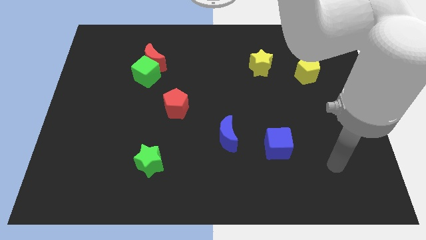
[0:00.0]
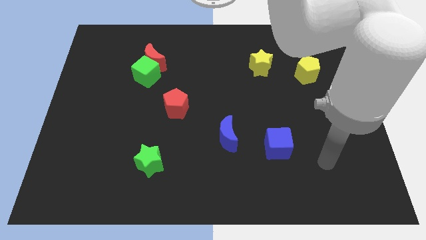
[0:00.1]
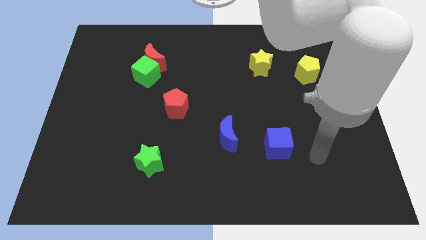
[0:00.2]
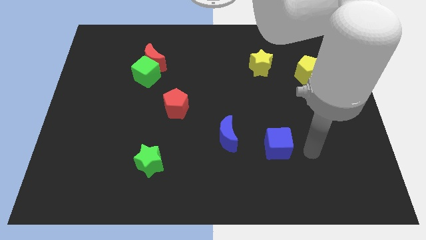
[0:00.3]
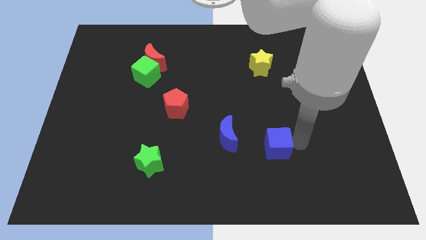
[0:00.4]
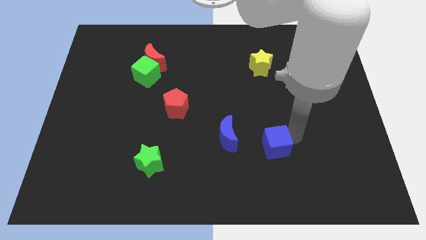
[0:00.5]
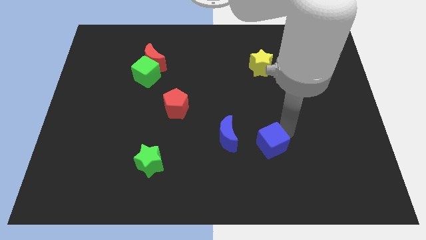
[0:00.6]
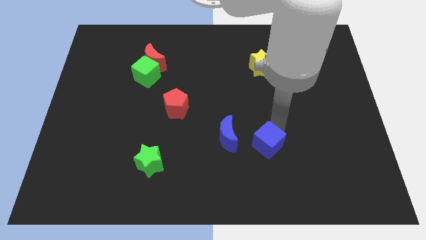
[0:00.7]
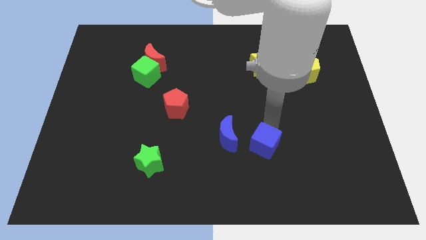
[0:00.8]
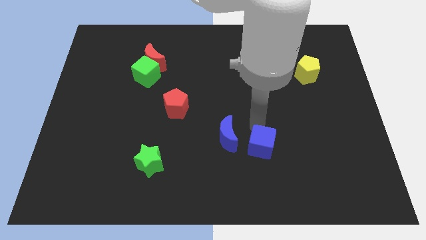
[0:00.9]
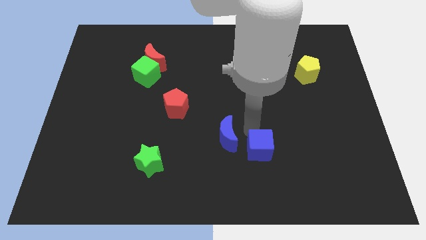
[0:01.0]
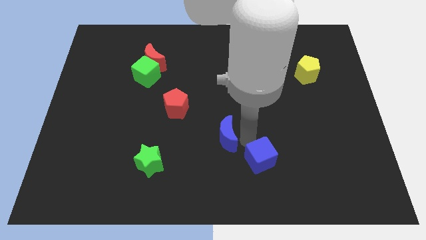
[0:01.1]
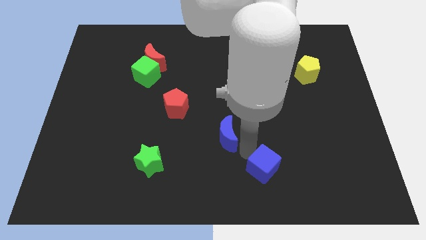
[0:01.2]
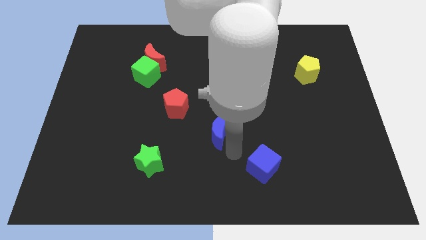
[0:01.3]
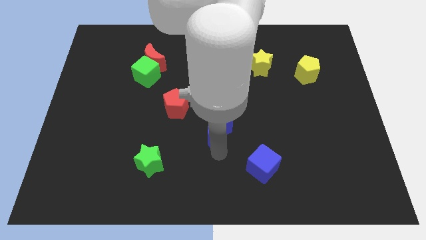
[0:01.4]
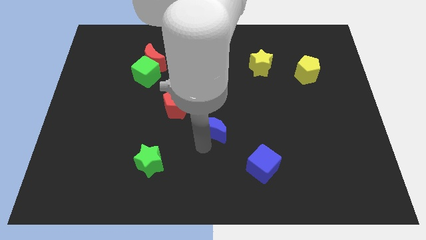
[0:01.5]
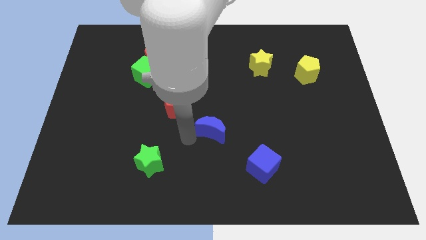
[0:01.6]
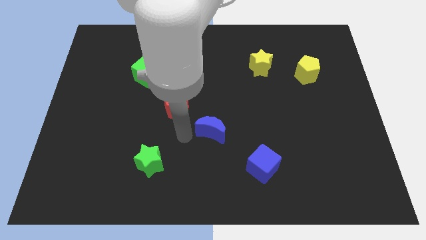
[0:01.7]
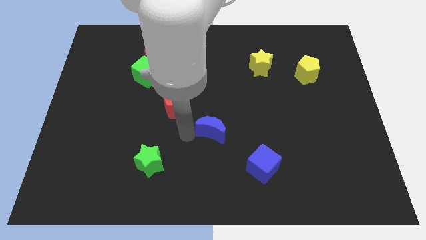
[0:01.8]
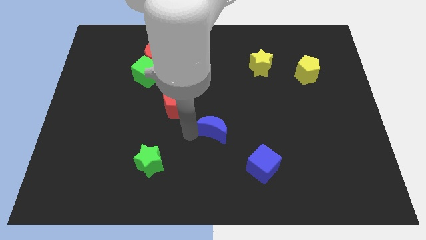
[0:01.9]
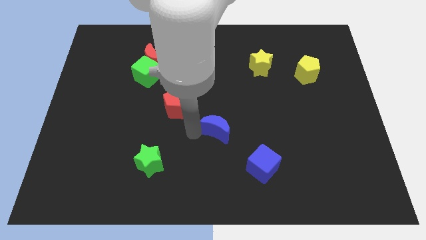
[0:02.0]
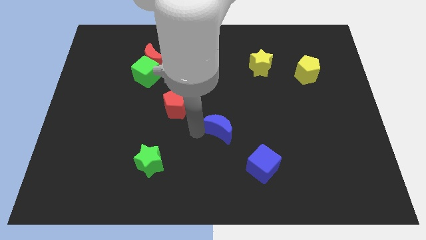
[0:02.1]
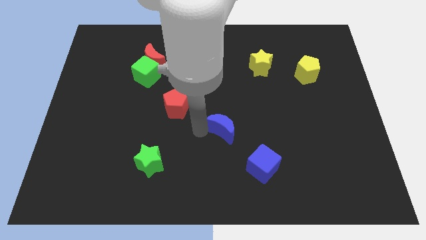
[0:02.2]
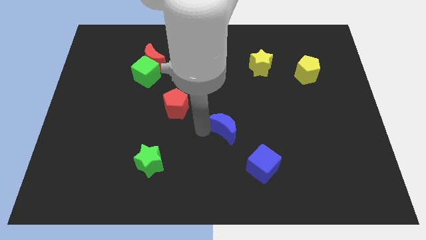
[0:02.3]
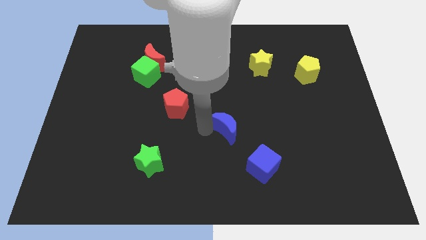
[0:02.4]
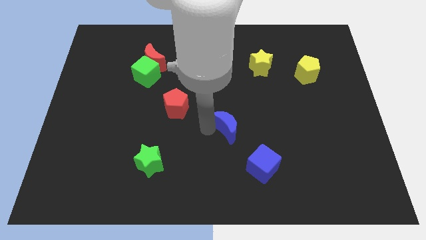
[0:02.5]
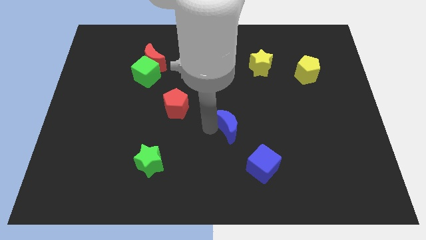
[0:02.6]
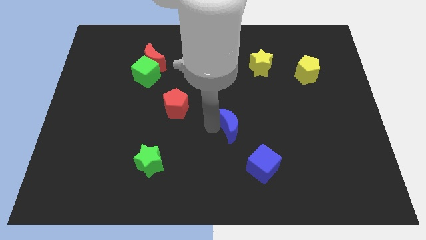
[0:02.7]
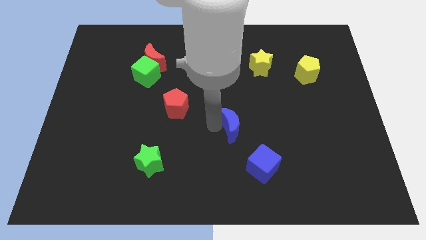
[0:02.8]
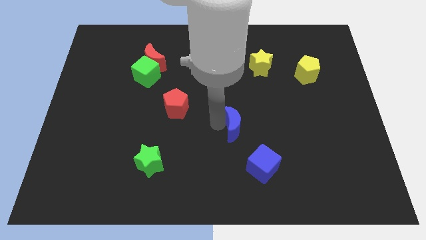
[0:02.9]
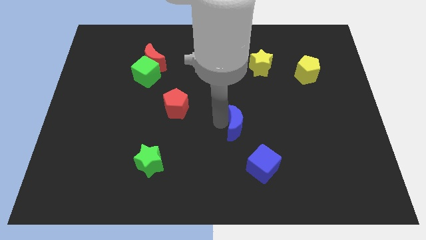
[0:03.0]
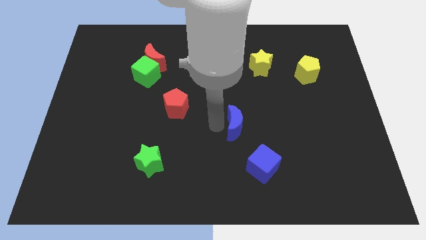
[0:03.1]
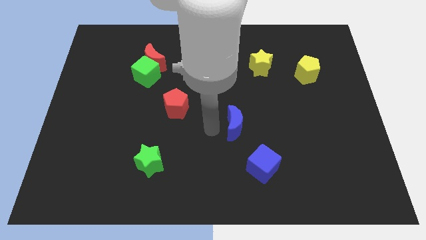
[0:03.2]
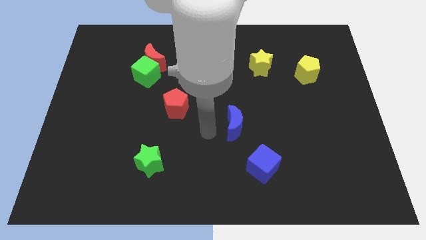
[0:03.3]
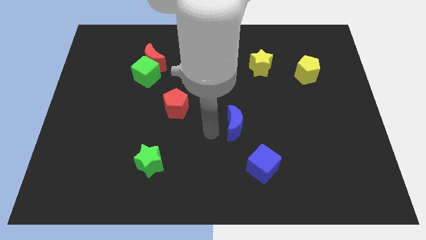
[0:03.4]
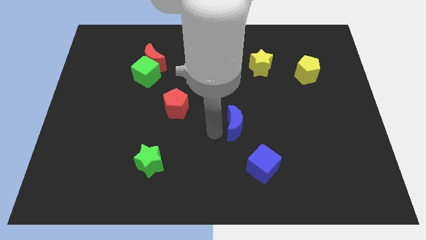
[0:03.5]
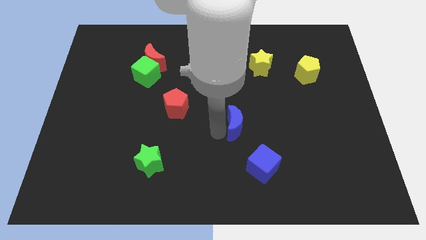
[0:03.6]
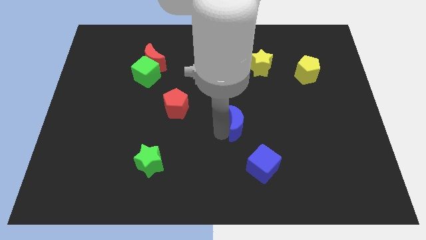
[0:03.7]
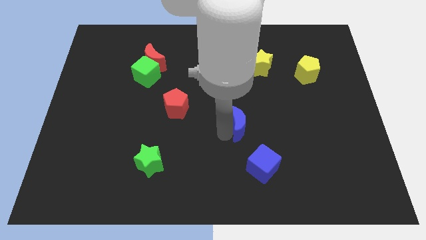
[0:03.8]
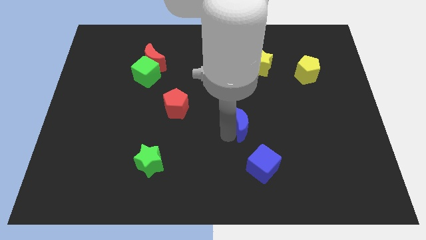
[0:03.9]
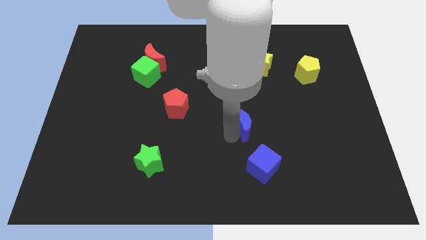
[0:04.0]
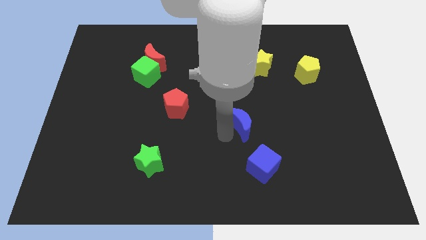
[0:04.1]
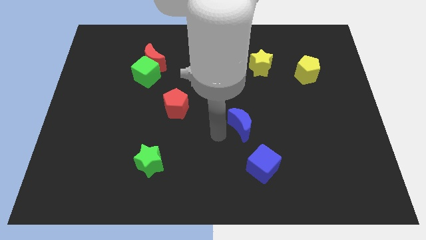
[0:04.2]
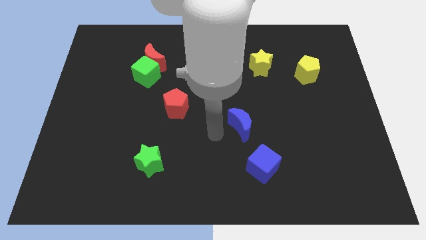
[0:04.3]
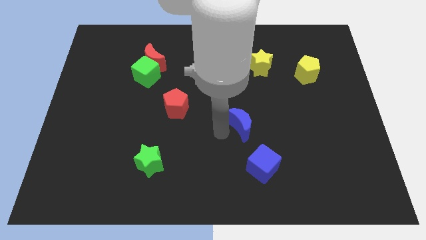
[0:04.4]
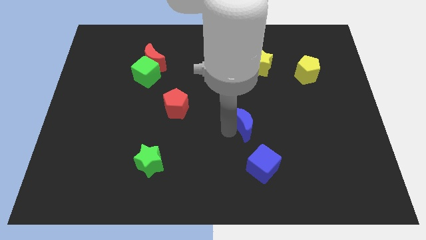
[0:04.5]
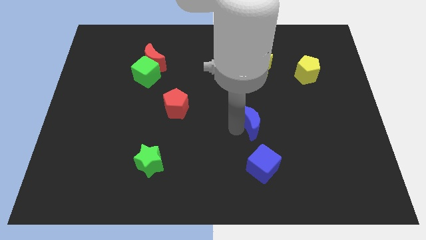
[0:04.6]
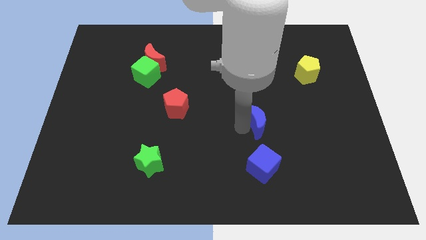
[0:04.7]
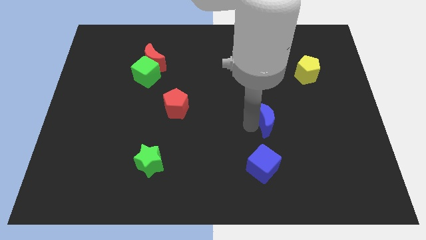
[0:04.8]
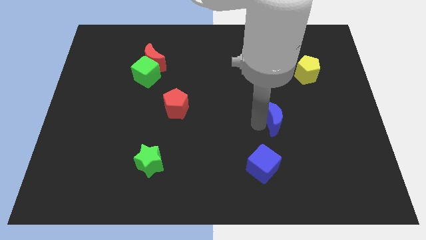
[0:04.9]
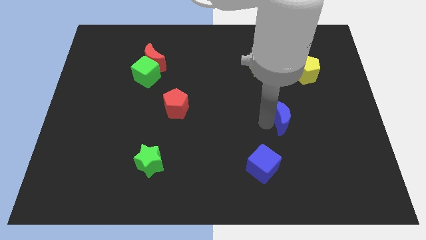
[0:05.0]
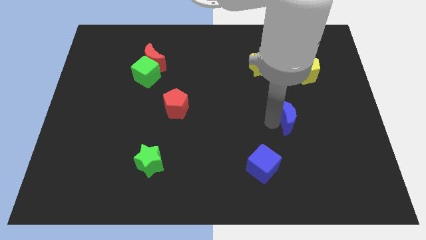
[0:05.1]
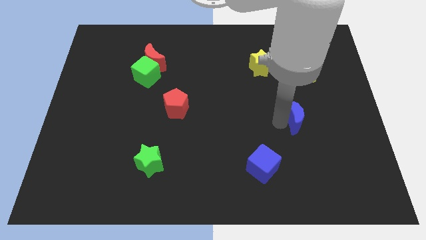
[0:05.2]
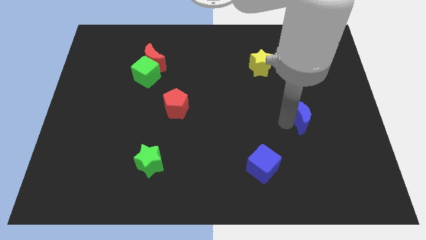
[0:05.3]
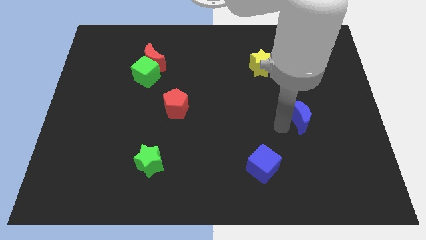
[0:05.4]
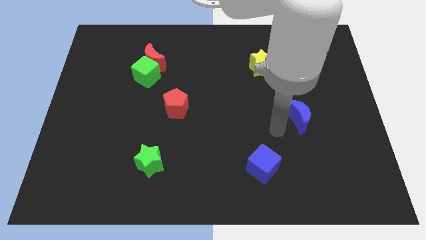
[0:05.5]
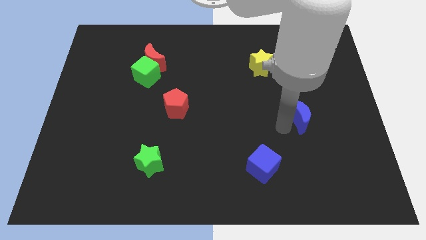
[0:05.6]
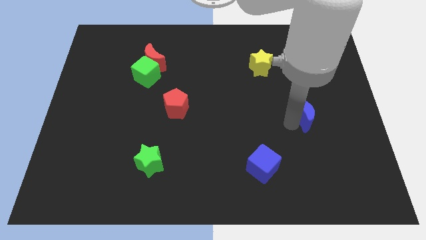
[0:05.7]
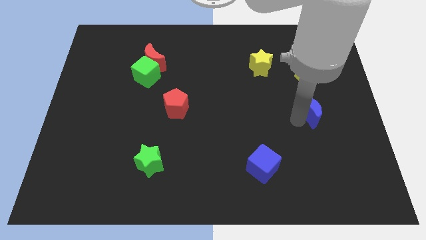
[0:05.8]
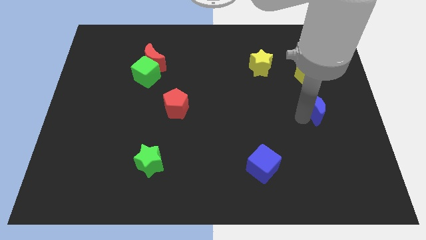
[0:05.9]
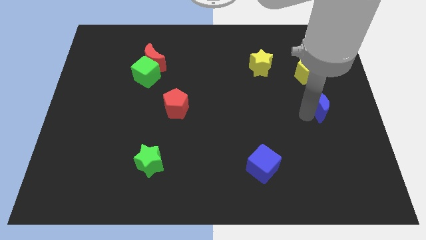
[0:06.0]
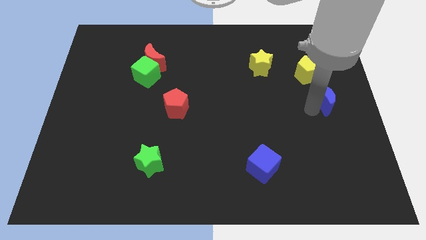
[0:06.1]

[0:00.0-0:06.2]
put the blue moon to the center right
